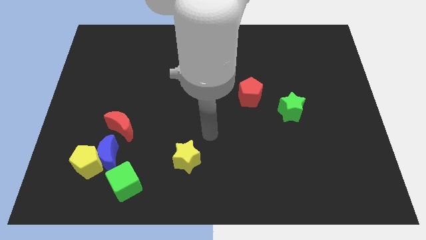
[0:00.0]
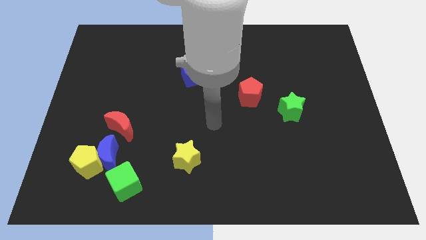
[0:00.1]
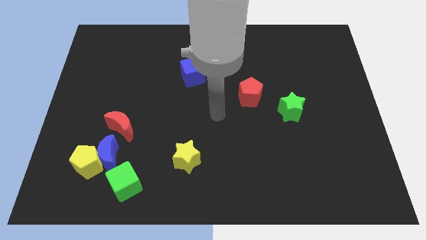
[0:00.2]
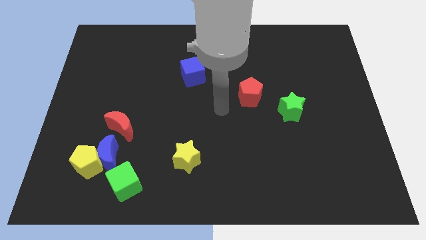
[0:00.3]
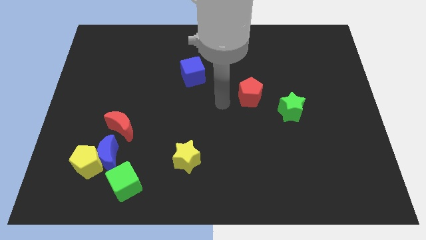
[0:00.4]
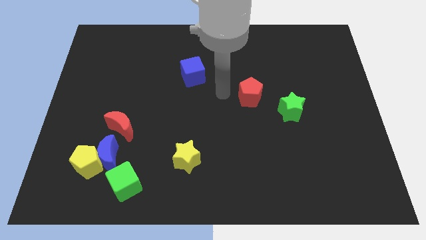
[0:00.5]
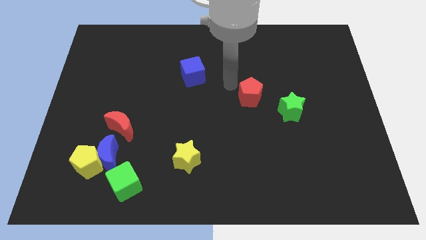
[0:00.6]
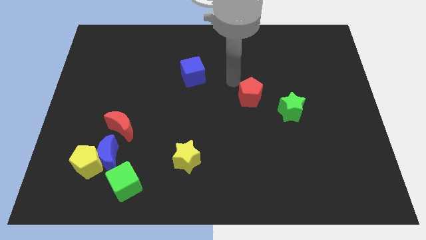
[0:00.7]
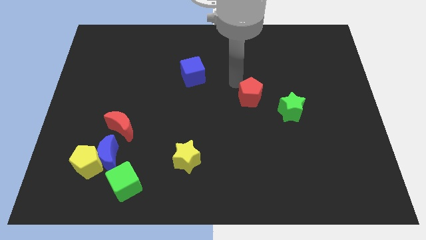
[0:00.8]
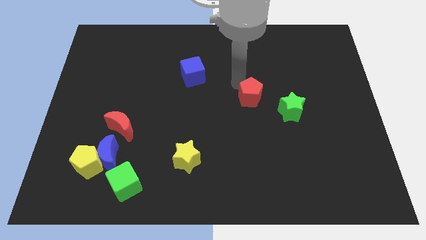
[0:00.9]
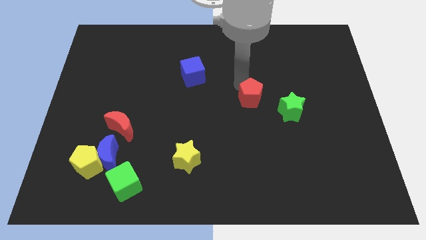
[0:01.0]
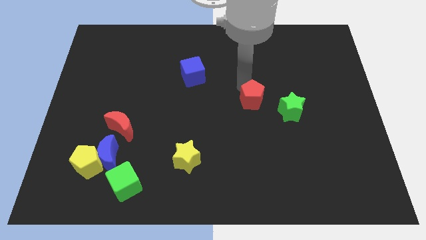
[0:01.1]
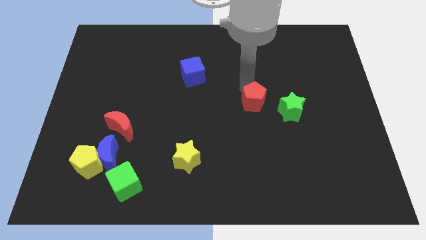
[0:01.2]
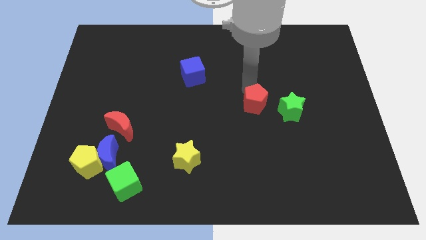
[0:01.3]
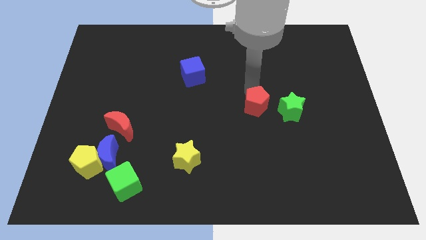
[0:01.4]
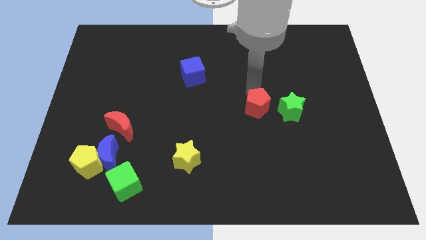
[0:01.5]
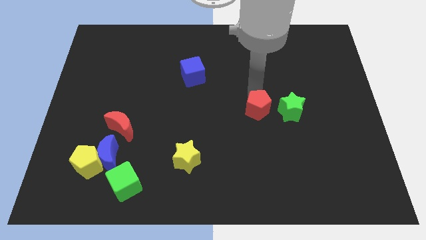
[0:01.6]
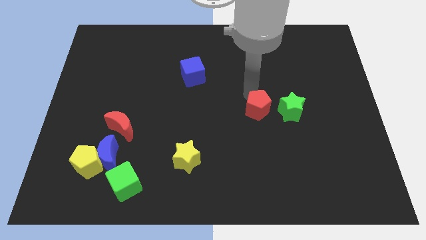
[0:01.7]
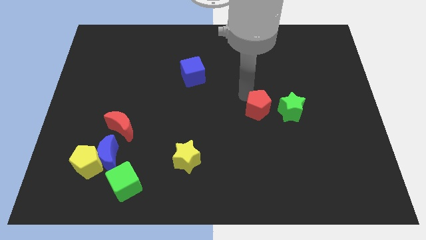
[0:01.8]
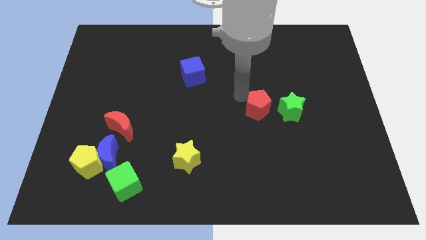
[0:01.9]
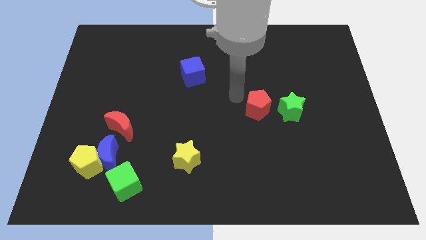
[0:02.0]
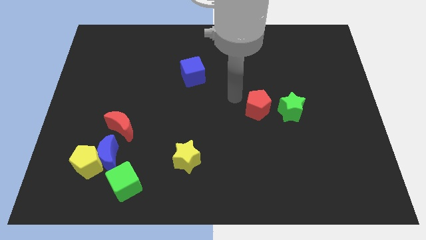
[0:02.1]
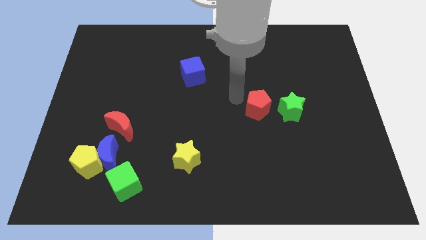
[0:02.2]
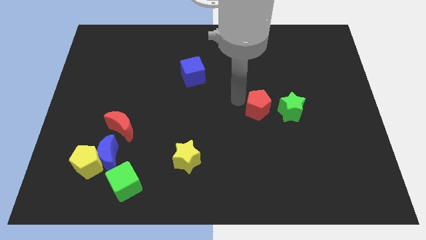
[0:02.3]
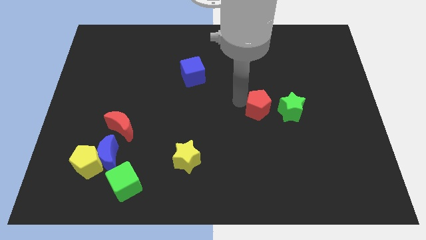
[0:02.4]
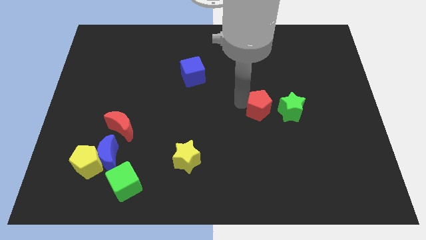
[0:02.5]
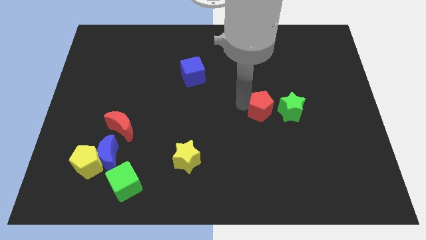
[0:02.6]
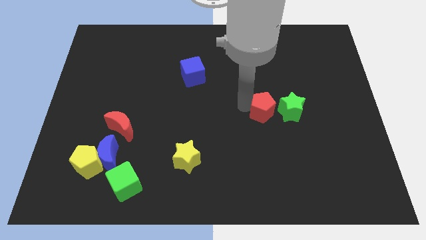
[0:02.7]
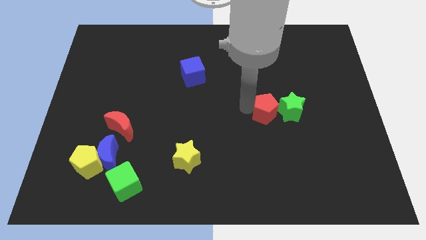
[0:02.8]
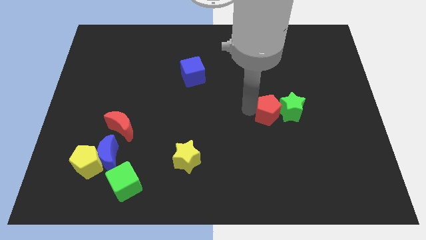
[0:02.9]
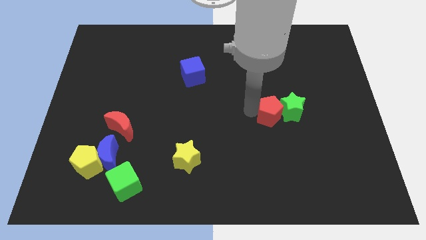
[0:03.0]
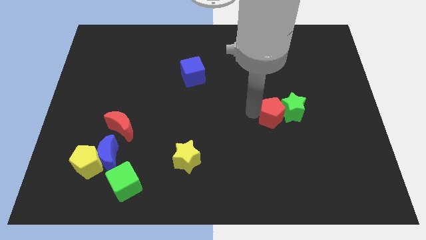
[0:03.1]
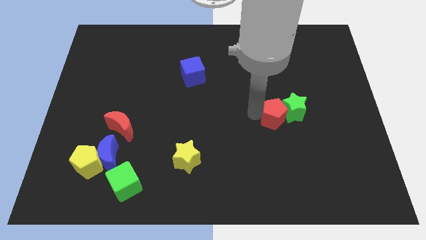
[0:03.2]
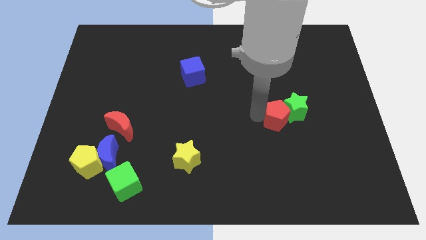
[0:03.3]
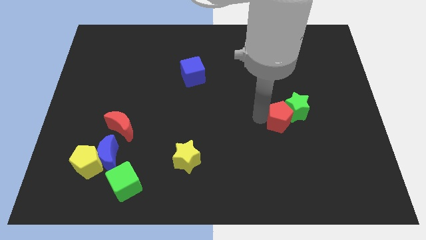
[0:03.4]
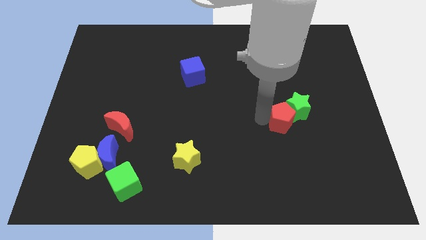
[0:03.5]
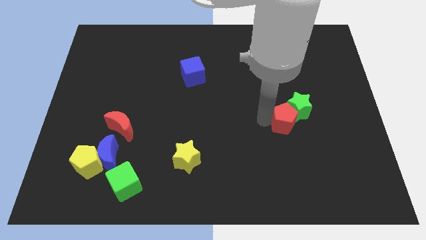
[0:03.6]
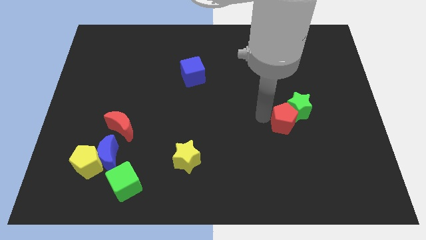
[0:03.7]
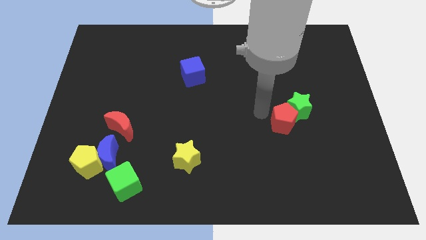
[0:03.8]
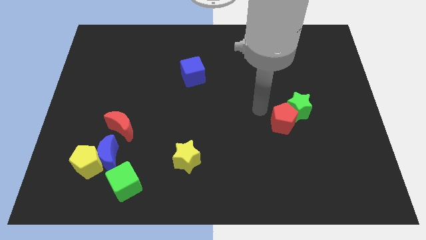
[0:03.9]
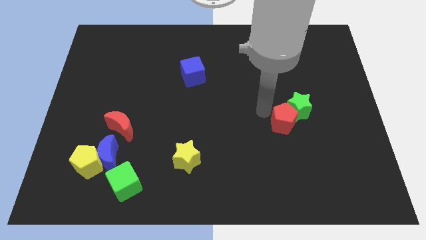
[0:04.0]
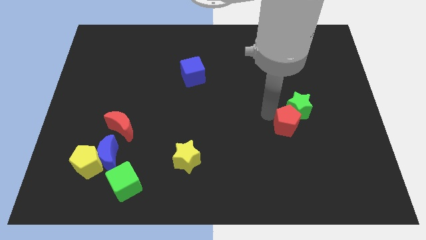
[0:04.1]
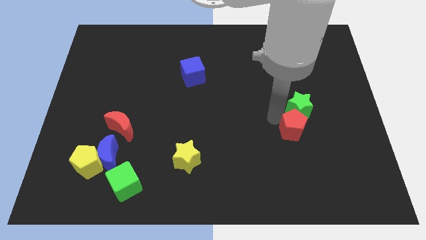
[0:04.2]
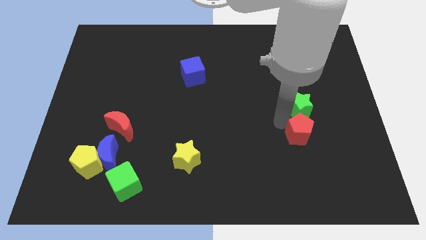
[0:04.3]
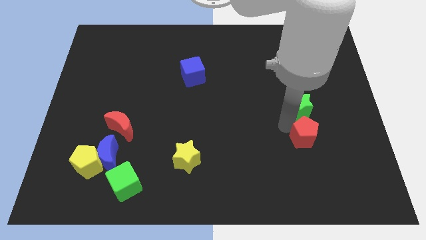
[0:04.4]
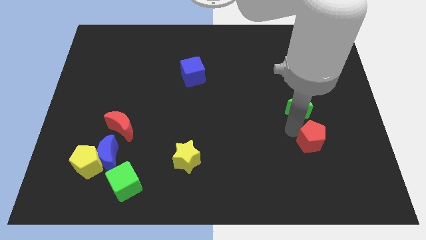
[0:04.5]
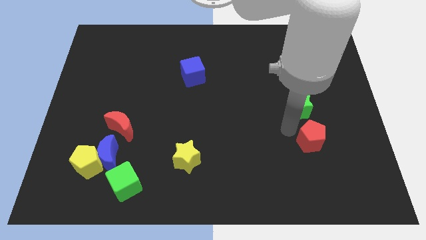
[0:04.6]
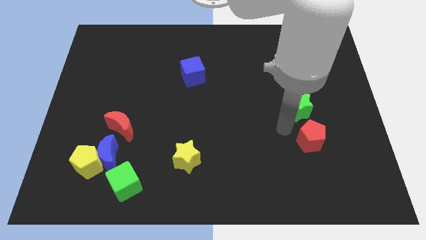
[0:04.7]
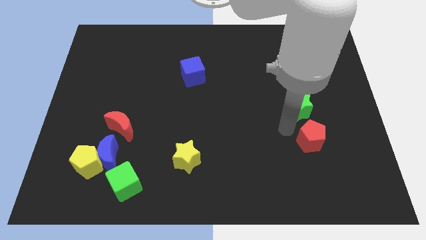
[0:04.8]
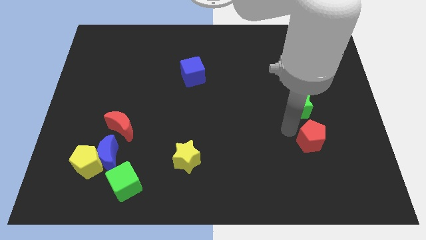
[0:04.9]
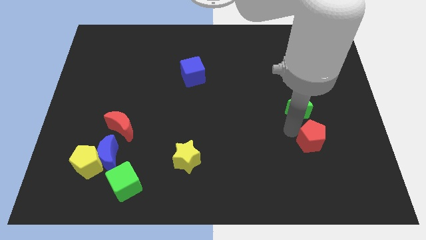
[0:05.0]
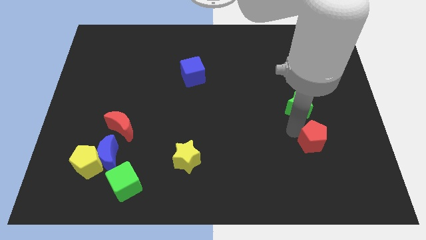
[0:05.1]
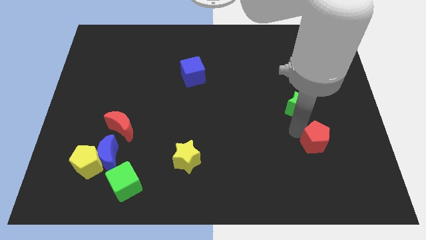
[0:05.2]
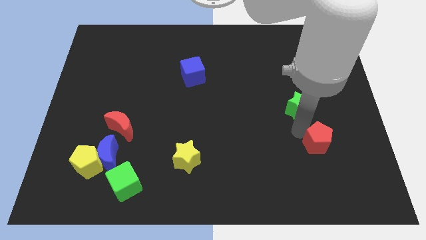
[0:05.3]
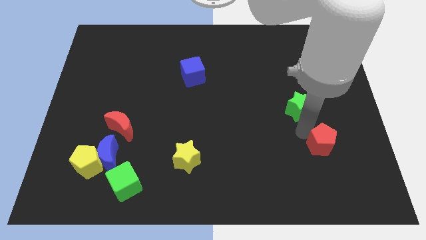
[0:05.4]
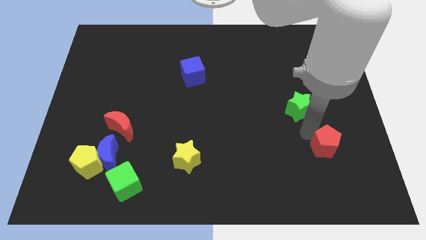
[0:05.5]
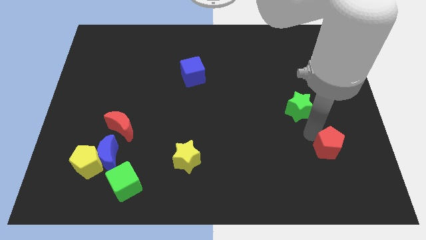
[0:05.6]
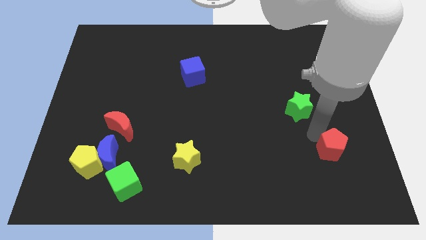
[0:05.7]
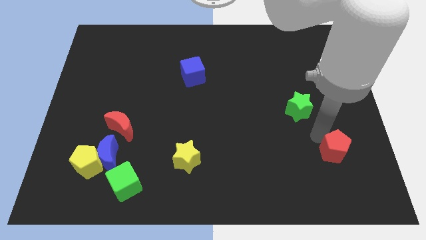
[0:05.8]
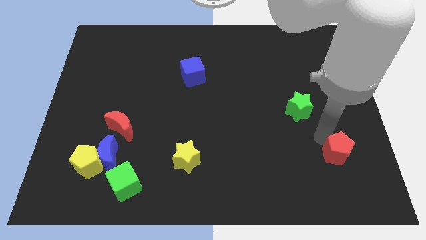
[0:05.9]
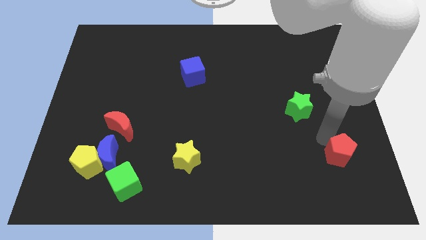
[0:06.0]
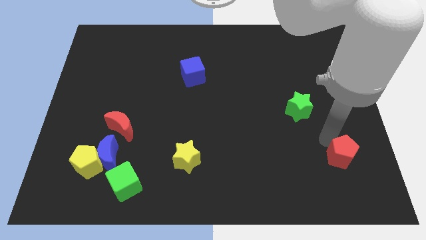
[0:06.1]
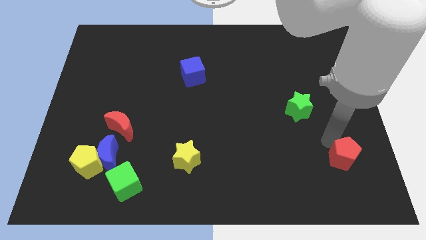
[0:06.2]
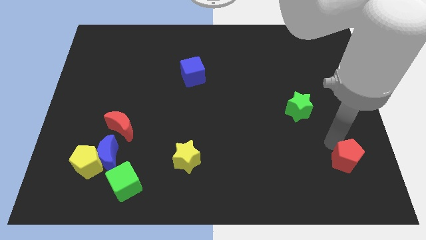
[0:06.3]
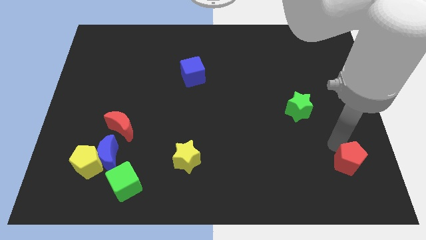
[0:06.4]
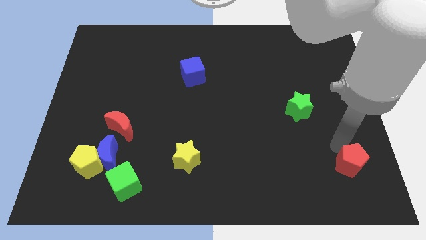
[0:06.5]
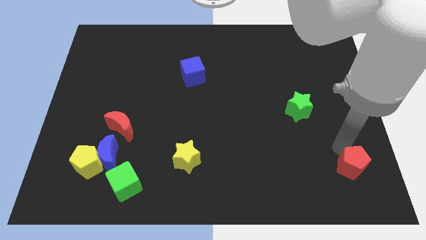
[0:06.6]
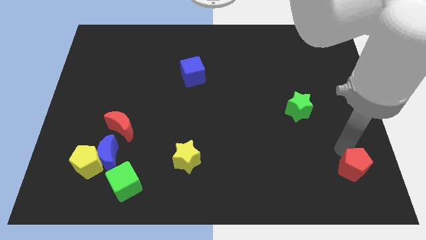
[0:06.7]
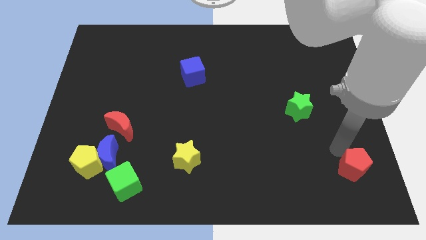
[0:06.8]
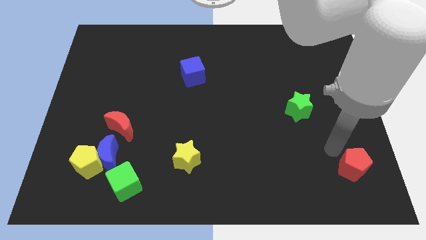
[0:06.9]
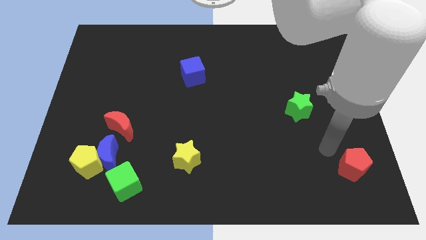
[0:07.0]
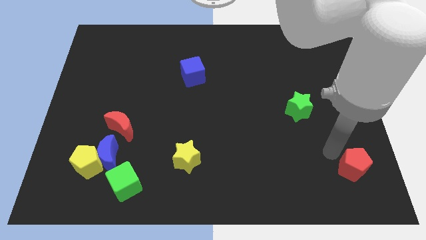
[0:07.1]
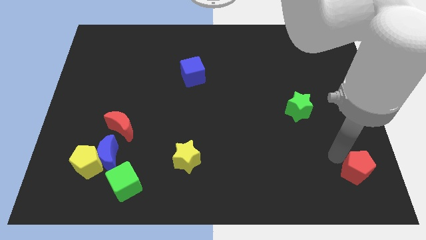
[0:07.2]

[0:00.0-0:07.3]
put the red pentagon to the bottom right
